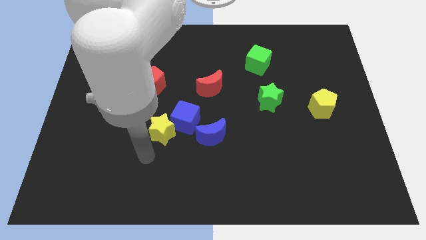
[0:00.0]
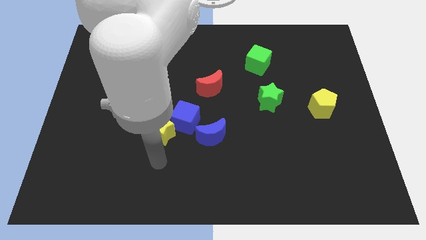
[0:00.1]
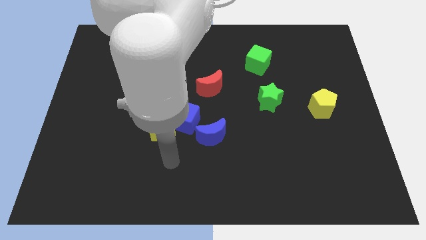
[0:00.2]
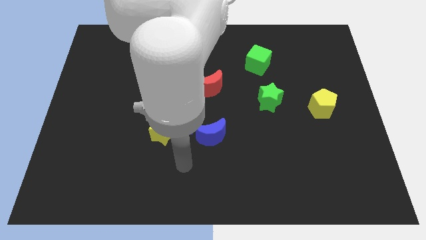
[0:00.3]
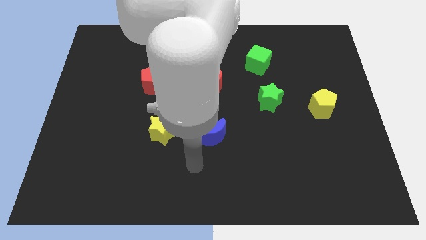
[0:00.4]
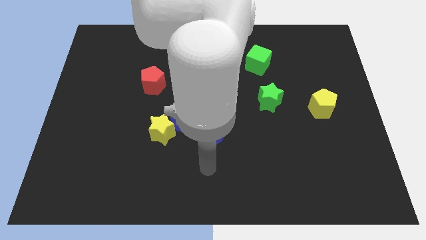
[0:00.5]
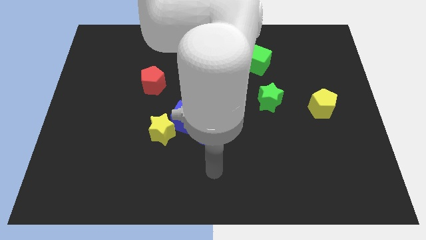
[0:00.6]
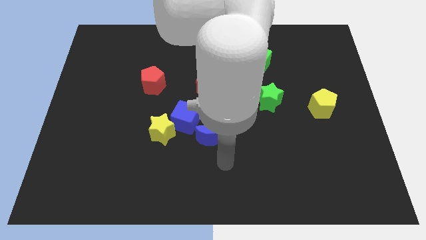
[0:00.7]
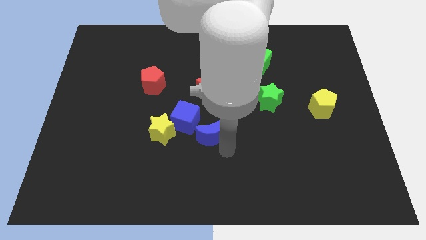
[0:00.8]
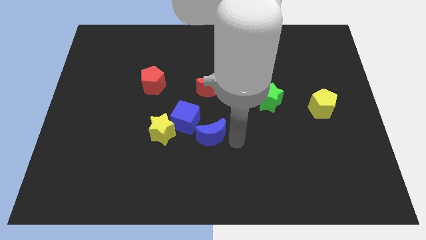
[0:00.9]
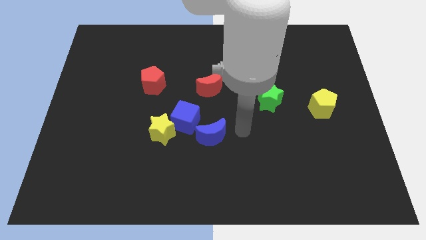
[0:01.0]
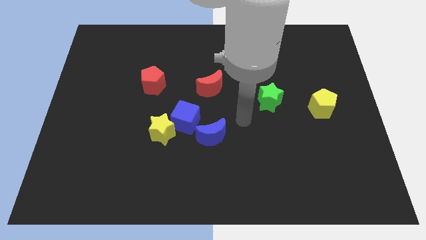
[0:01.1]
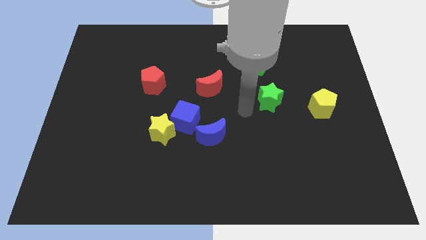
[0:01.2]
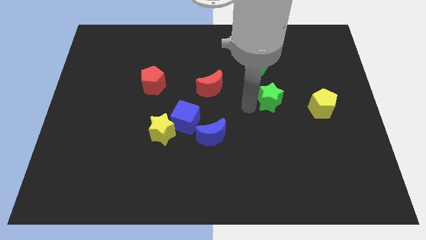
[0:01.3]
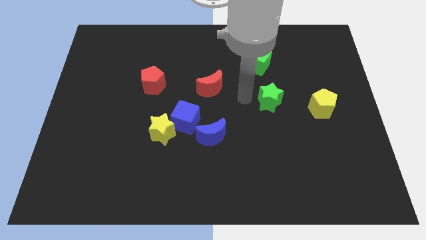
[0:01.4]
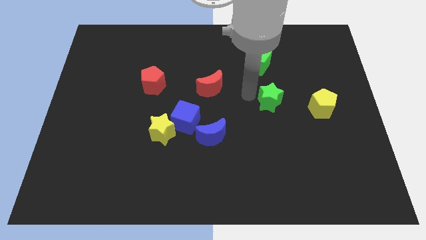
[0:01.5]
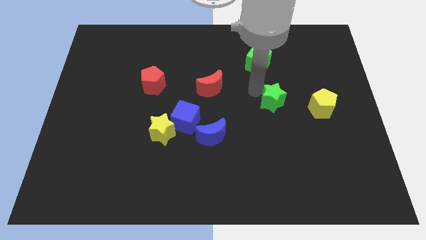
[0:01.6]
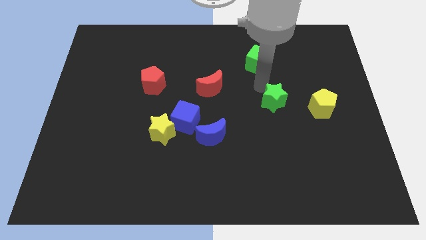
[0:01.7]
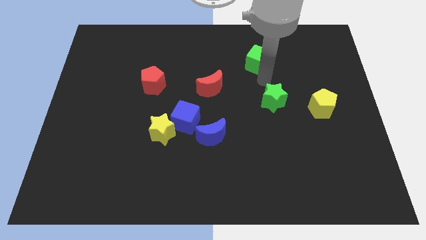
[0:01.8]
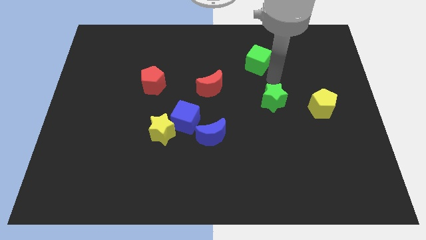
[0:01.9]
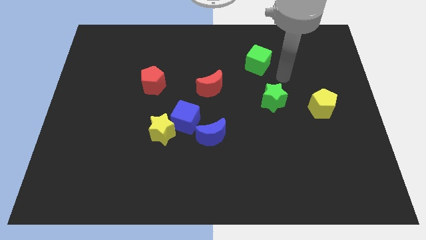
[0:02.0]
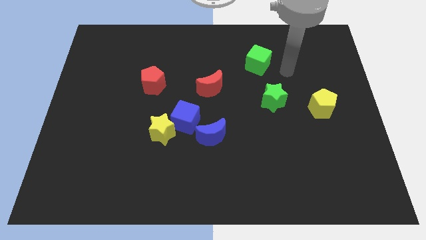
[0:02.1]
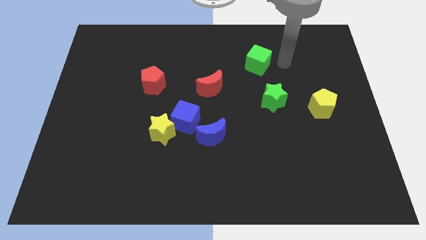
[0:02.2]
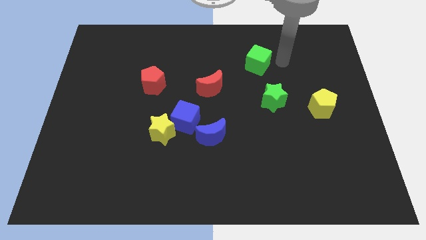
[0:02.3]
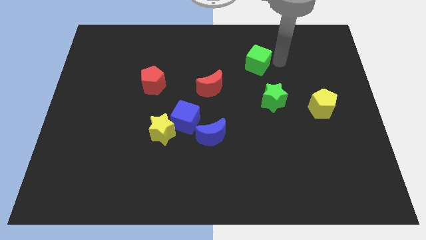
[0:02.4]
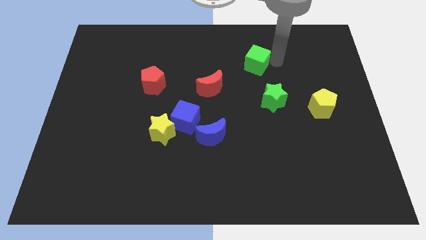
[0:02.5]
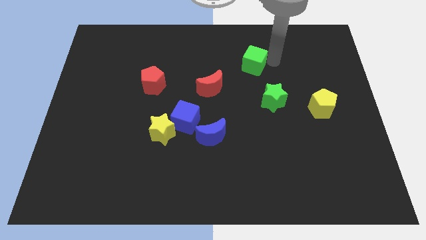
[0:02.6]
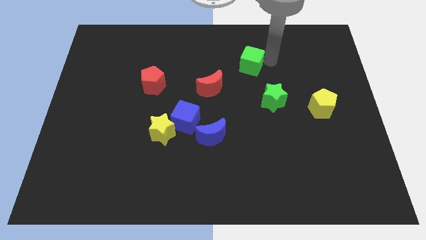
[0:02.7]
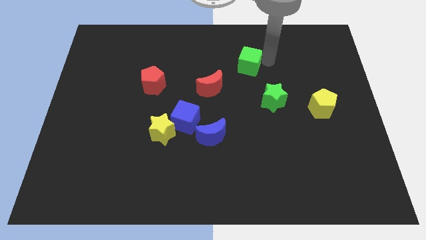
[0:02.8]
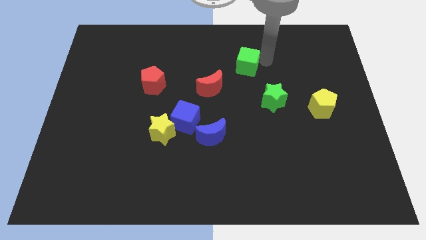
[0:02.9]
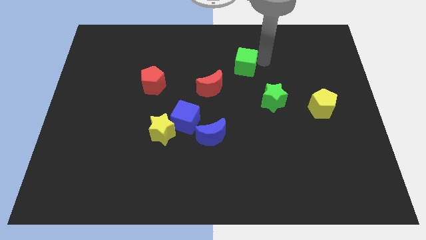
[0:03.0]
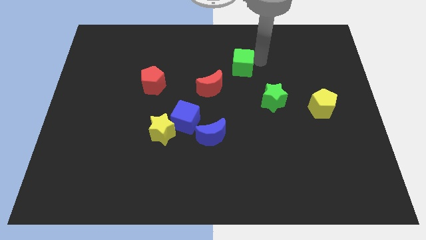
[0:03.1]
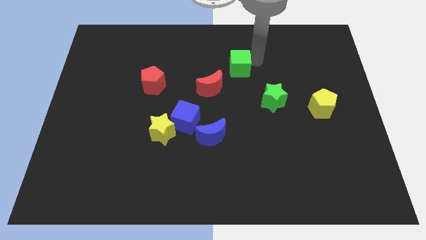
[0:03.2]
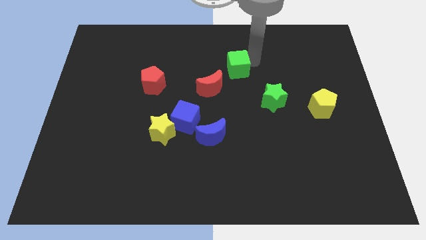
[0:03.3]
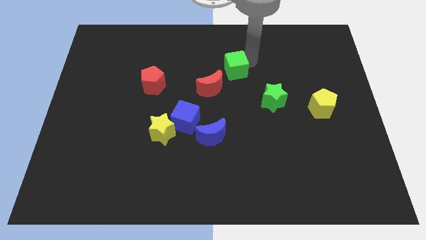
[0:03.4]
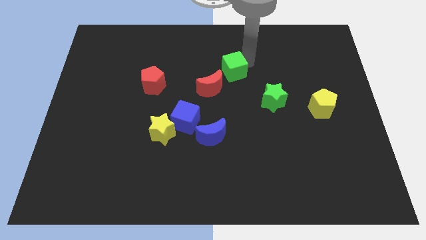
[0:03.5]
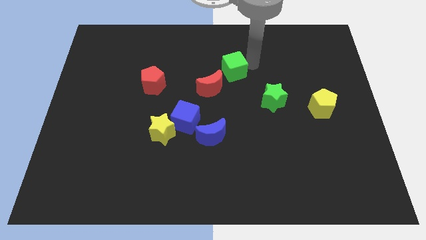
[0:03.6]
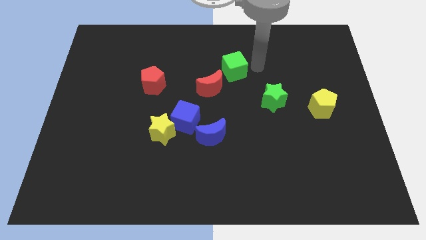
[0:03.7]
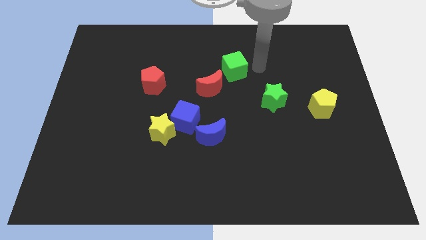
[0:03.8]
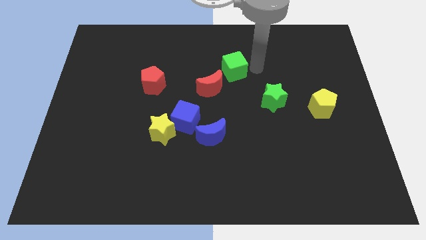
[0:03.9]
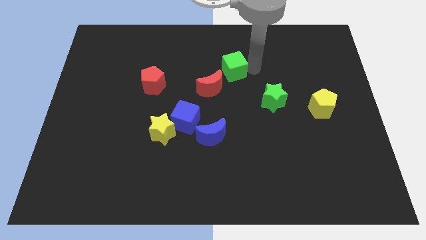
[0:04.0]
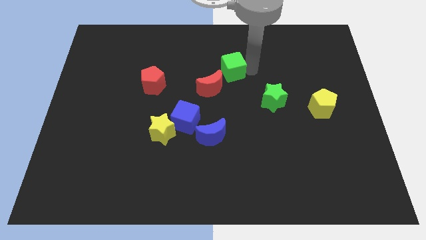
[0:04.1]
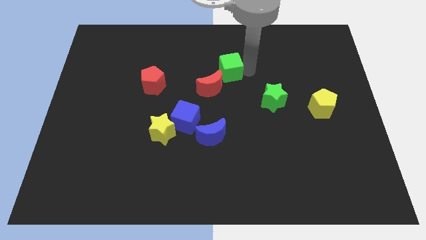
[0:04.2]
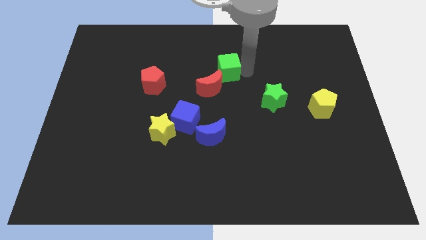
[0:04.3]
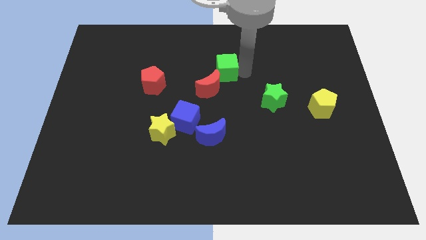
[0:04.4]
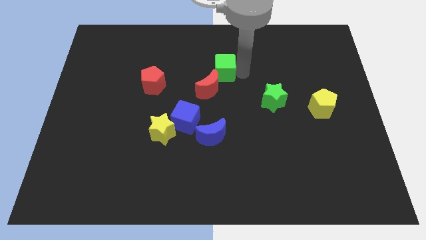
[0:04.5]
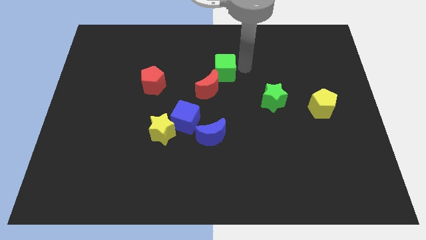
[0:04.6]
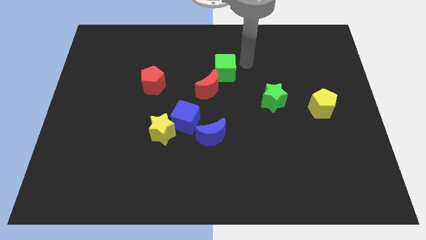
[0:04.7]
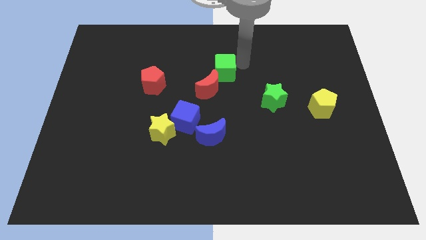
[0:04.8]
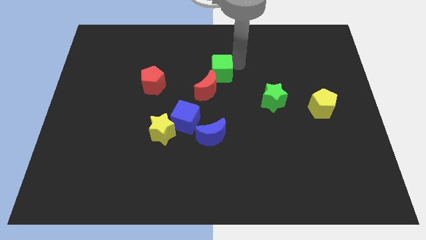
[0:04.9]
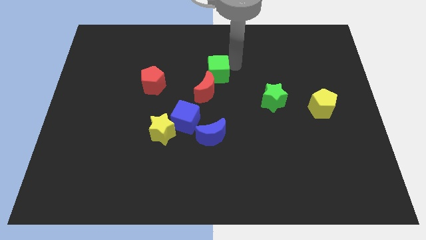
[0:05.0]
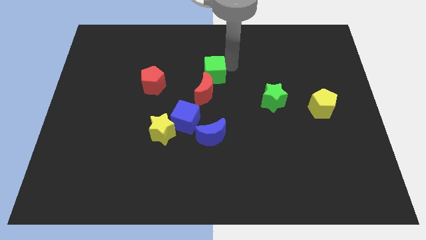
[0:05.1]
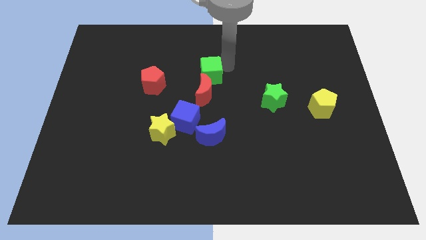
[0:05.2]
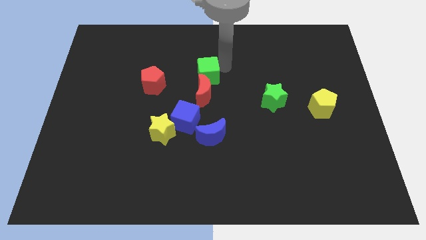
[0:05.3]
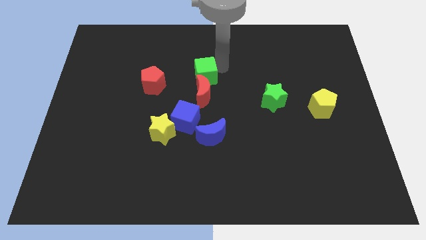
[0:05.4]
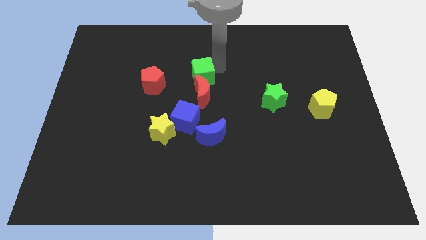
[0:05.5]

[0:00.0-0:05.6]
put the green cube to the top of the blue cube

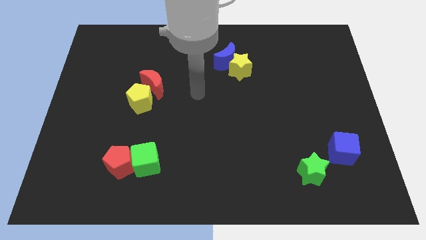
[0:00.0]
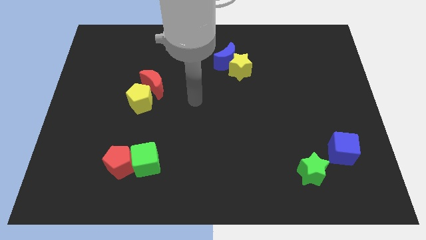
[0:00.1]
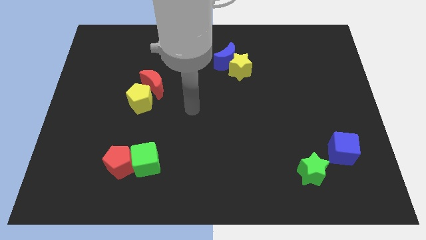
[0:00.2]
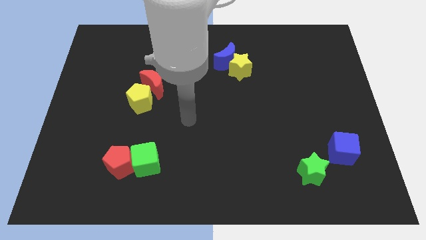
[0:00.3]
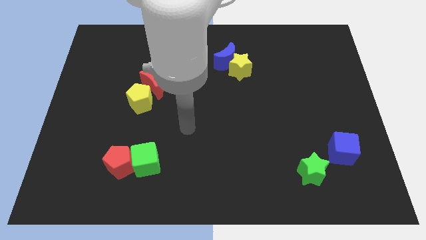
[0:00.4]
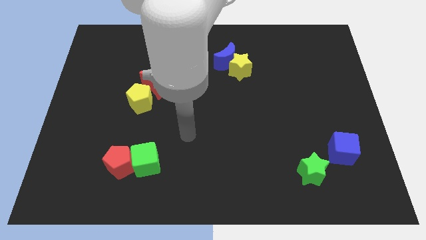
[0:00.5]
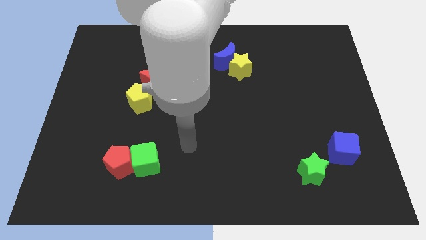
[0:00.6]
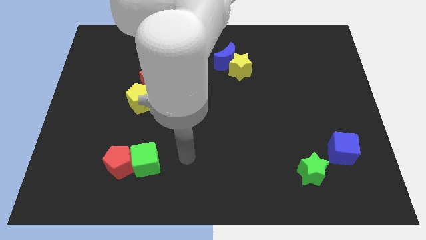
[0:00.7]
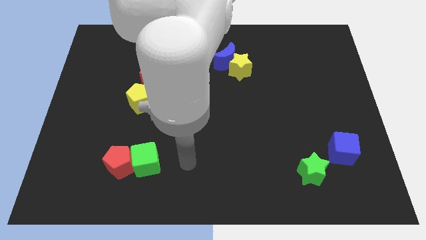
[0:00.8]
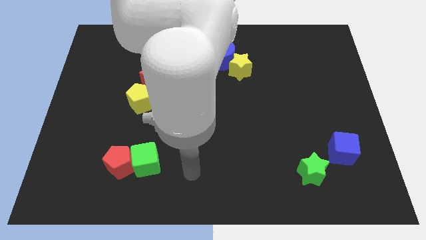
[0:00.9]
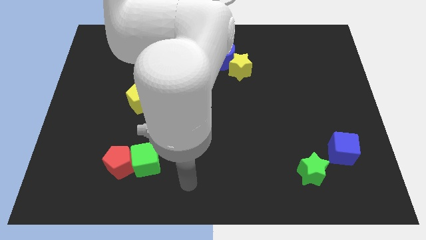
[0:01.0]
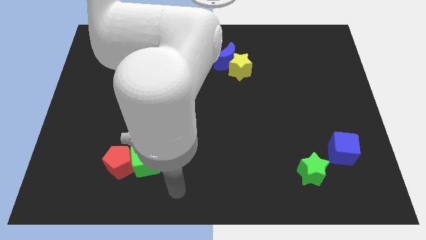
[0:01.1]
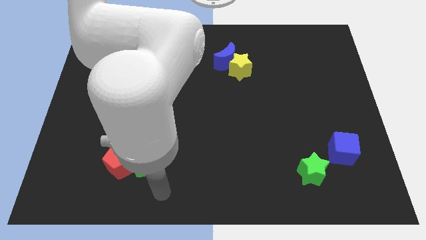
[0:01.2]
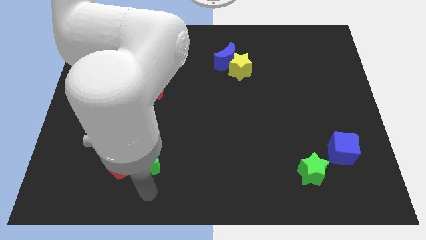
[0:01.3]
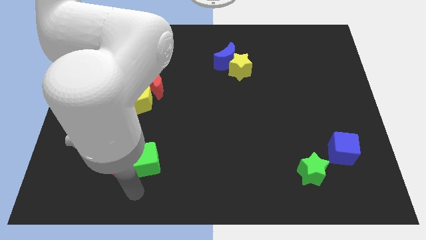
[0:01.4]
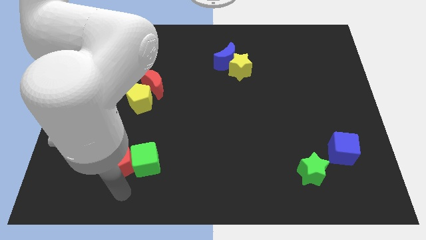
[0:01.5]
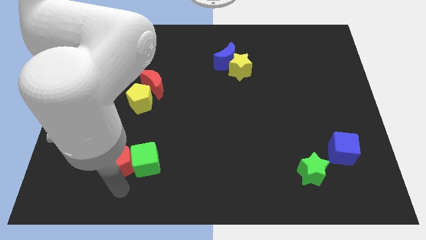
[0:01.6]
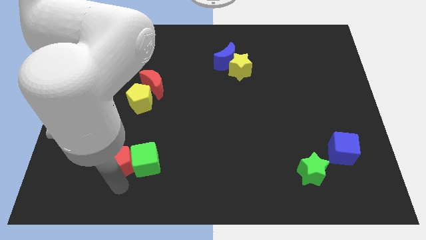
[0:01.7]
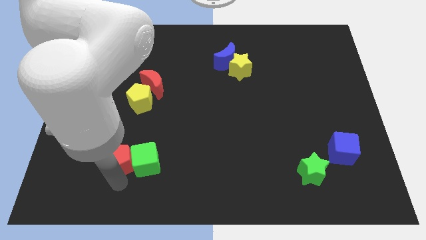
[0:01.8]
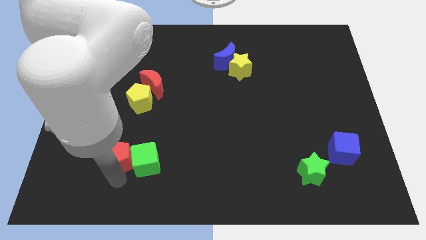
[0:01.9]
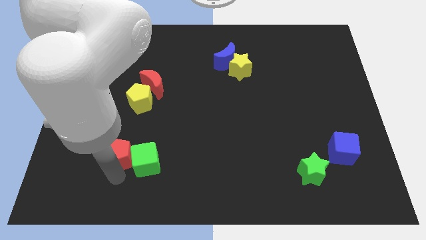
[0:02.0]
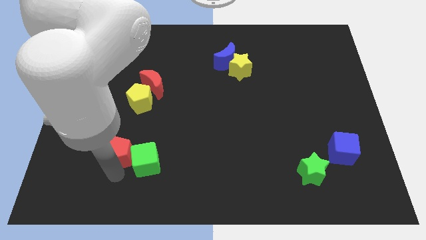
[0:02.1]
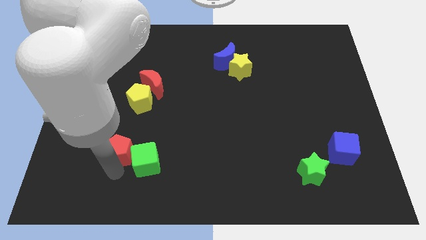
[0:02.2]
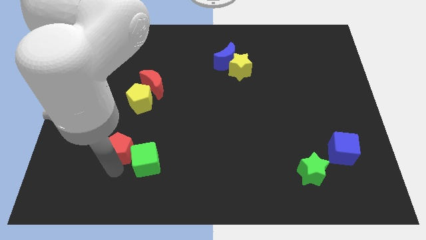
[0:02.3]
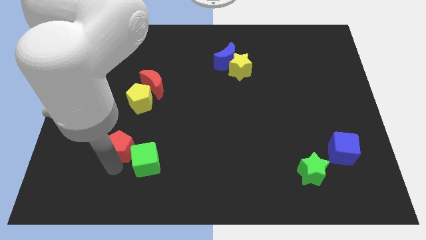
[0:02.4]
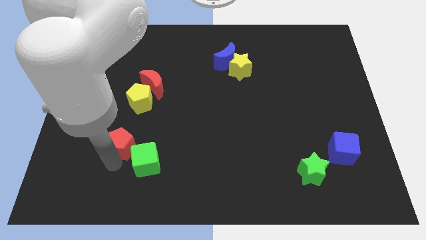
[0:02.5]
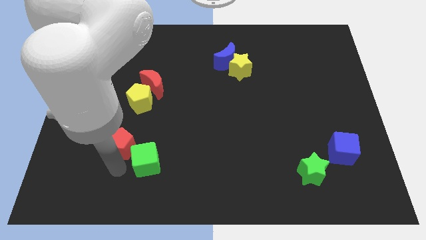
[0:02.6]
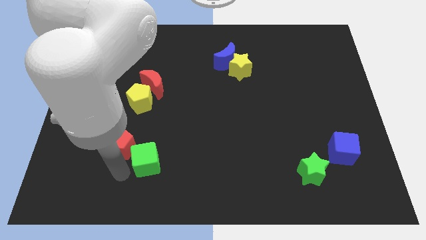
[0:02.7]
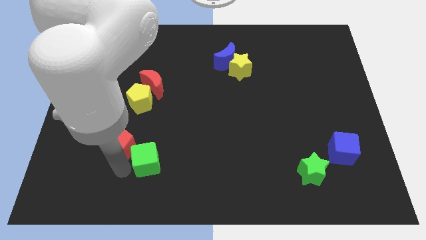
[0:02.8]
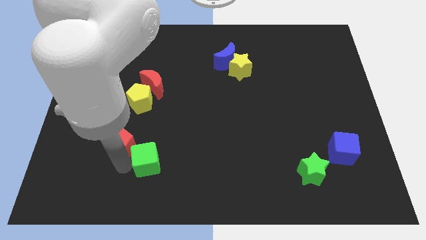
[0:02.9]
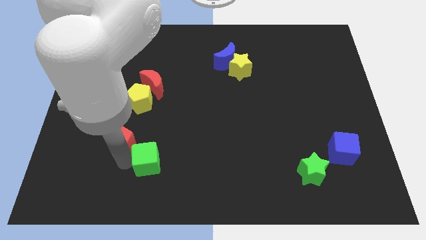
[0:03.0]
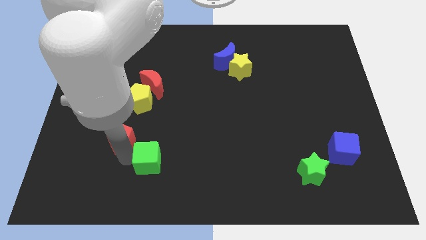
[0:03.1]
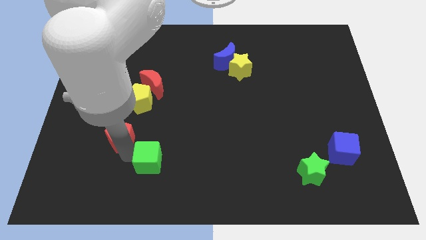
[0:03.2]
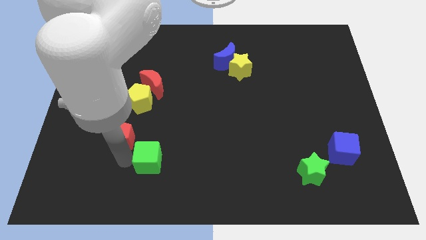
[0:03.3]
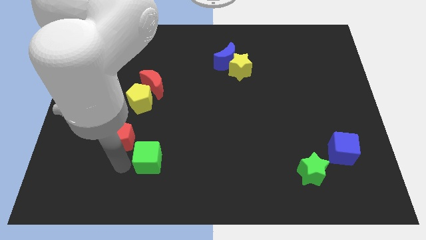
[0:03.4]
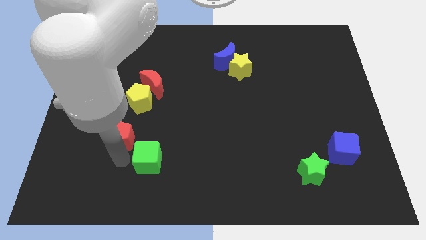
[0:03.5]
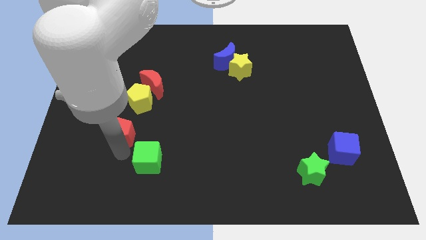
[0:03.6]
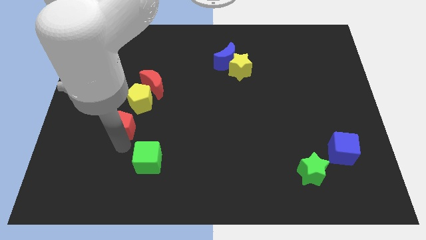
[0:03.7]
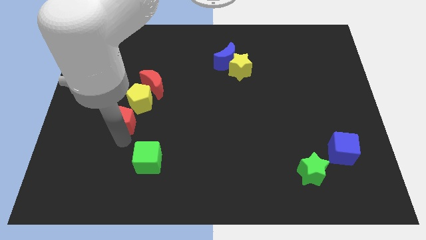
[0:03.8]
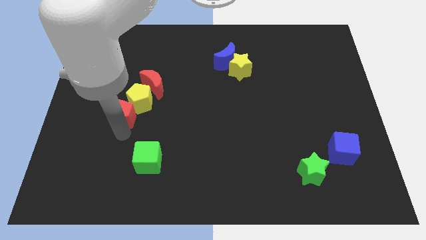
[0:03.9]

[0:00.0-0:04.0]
push the red pentagon to the bottom left of the red moon
